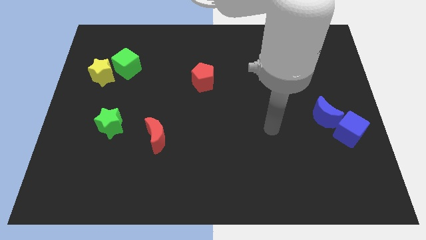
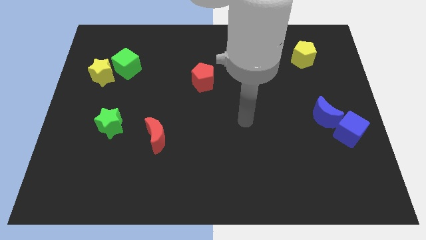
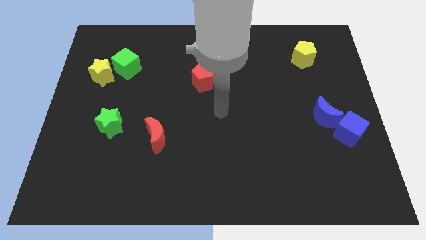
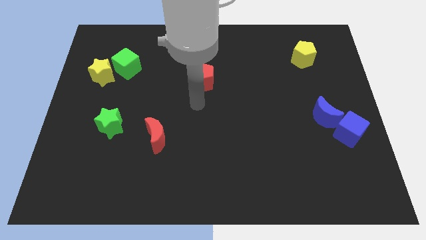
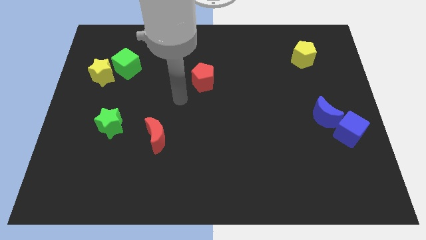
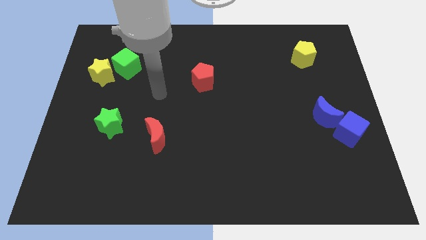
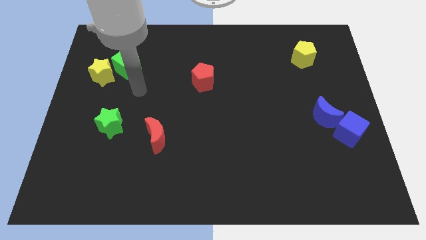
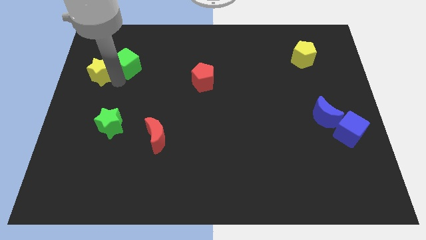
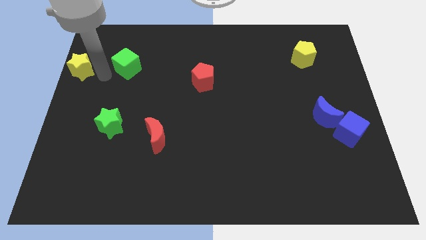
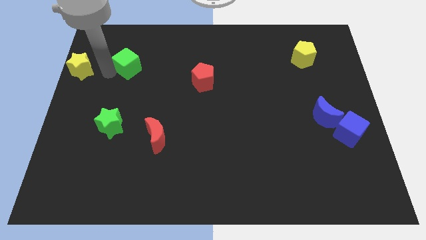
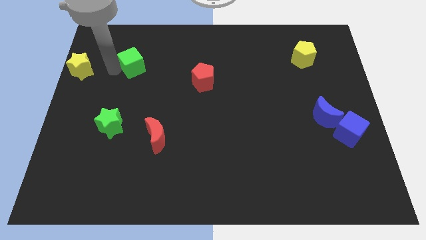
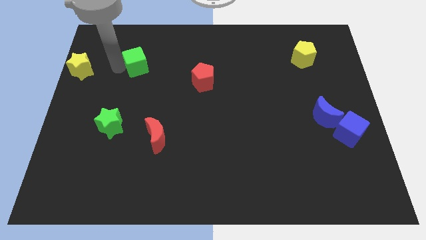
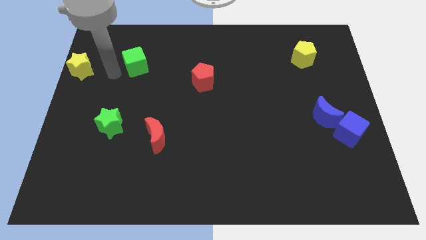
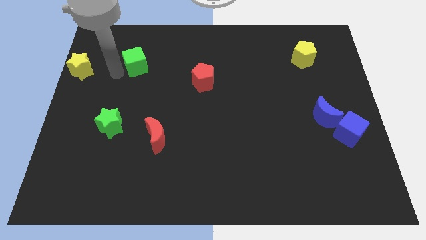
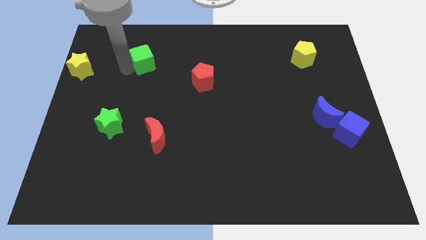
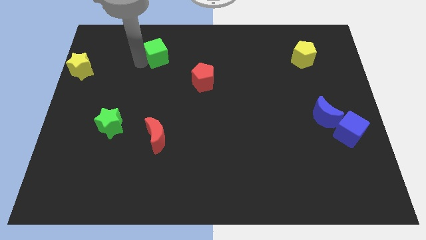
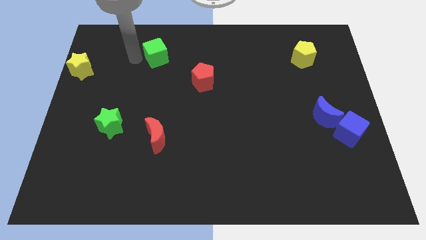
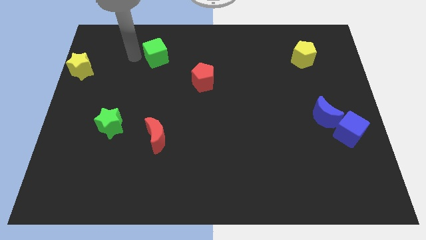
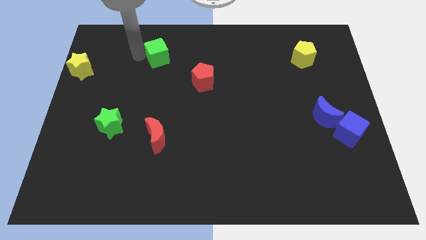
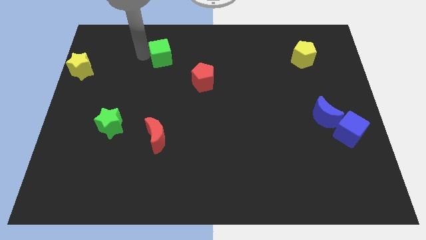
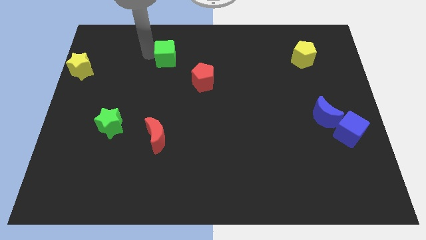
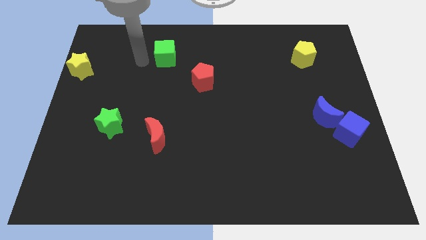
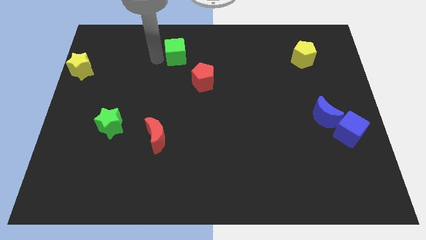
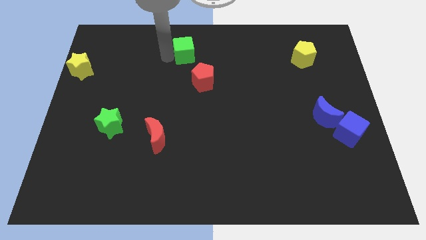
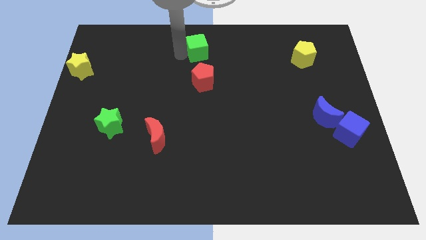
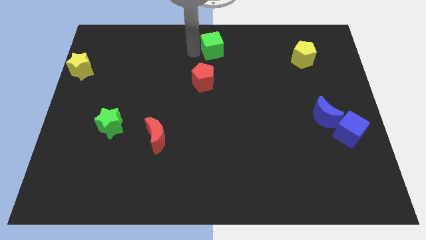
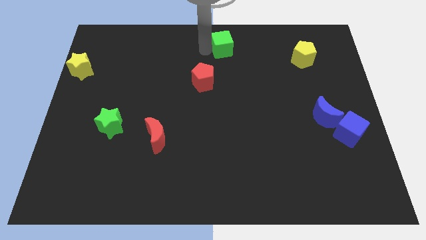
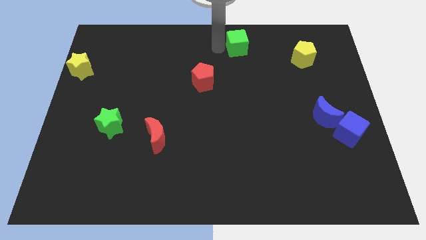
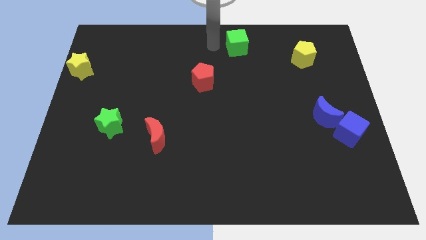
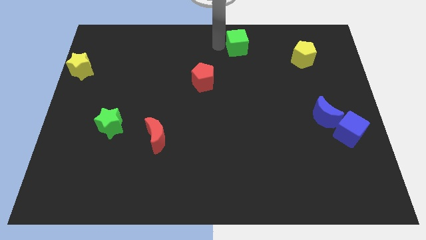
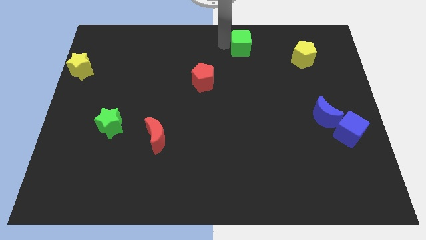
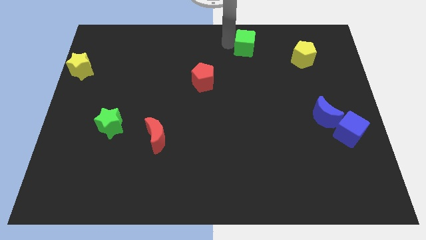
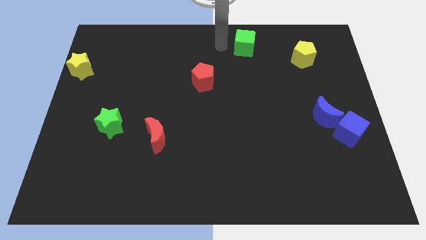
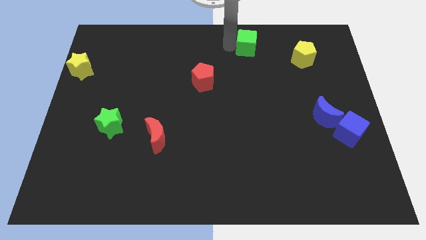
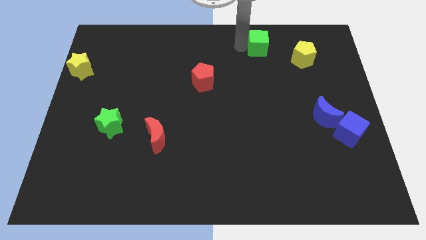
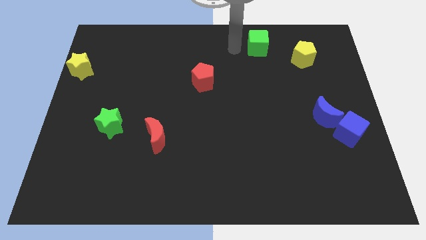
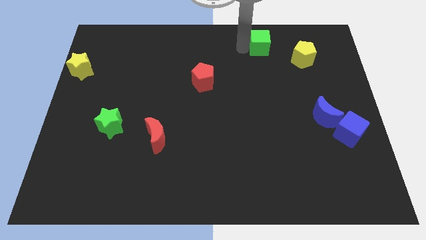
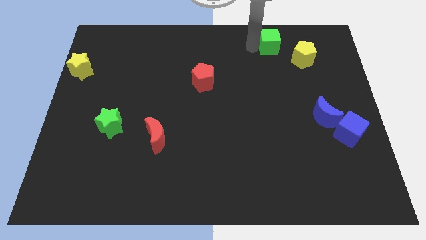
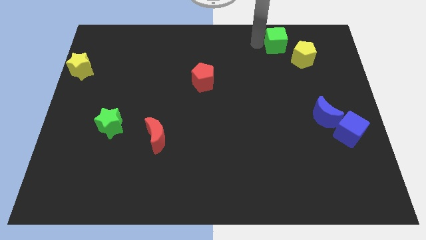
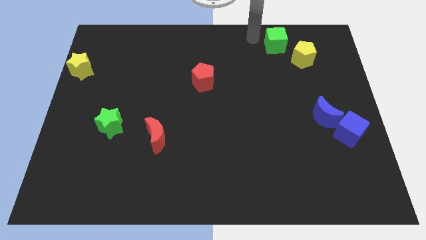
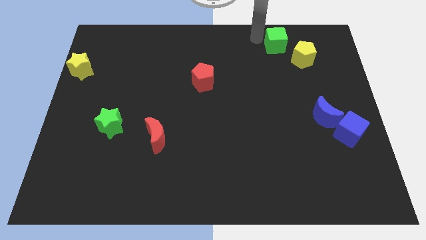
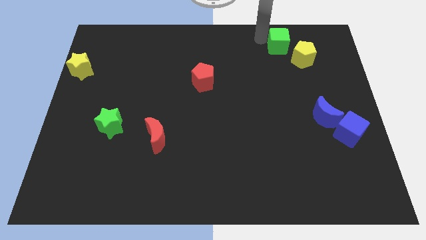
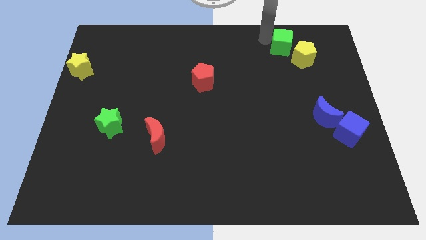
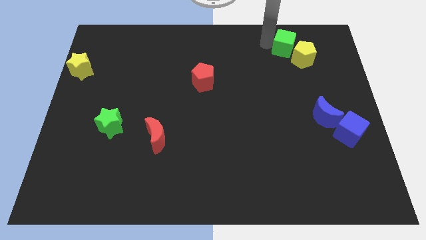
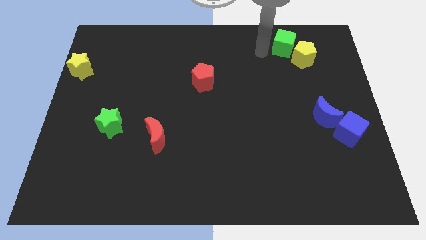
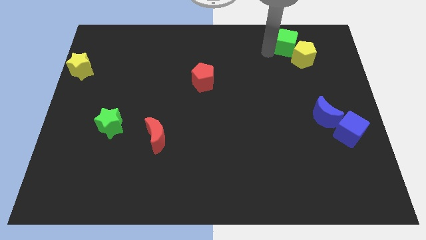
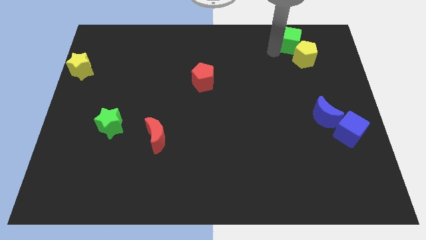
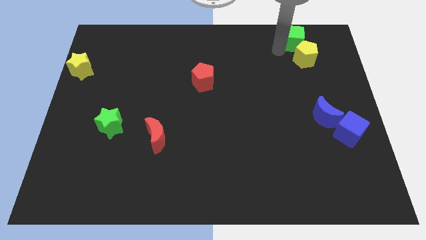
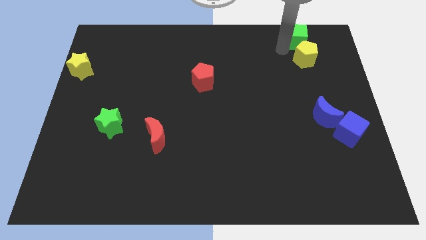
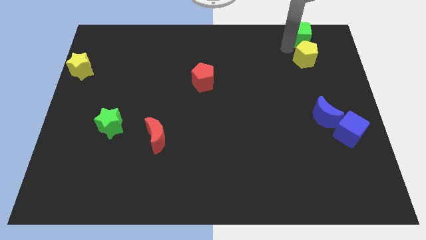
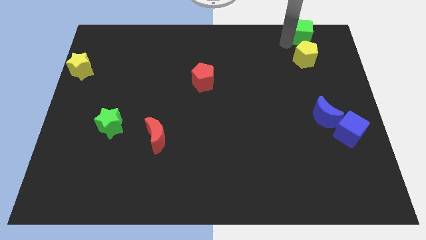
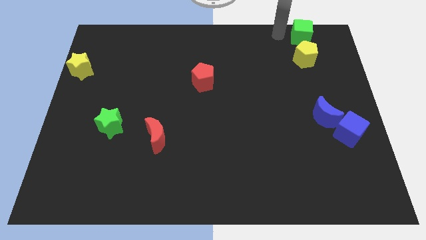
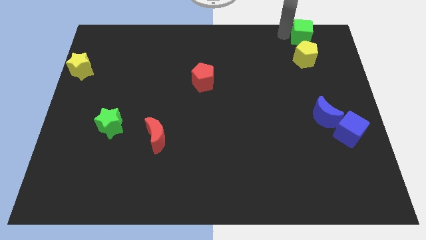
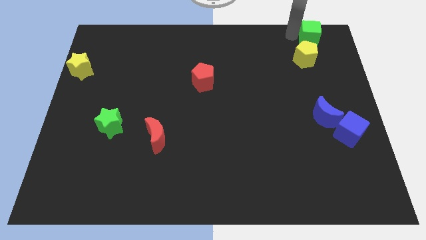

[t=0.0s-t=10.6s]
slide the green cube to the upper right corner
